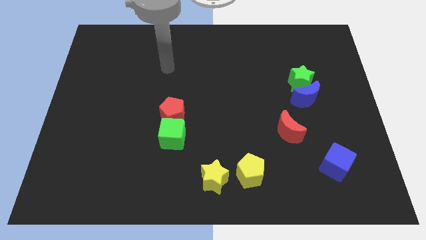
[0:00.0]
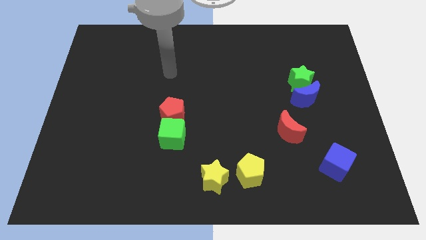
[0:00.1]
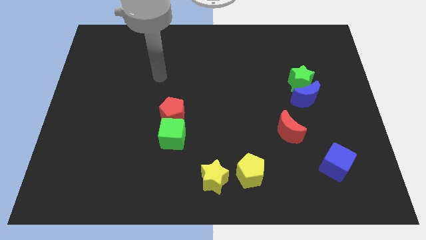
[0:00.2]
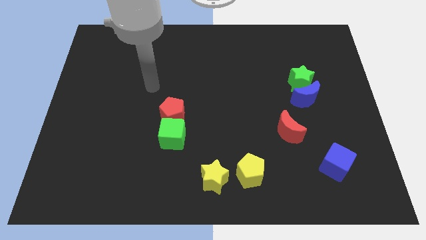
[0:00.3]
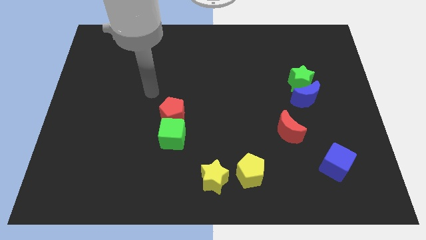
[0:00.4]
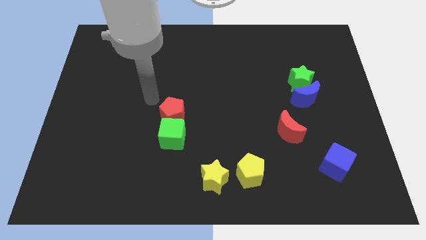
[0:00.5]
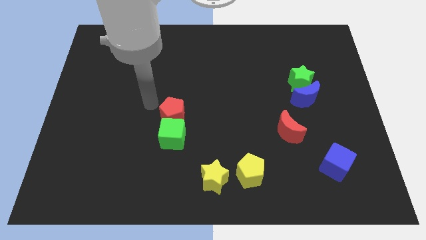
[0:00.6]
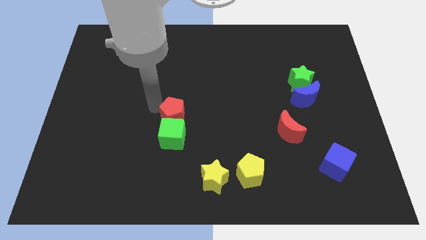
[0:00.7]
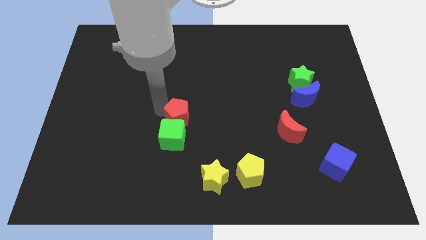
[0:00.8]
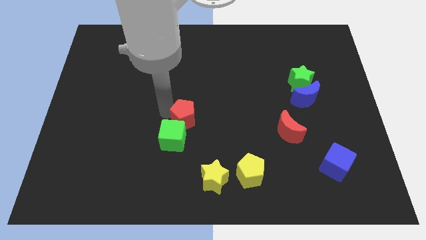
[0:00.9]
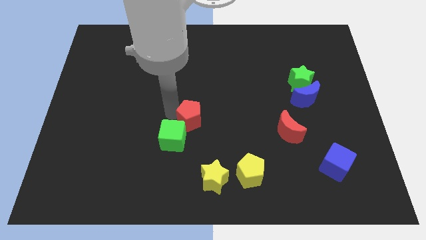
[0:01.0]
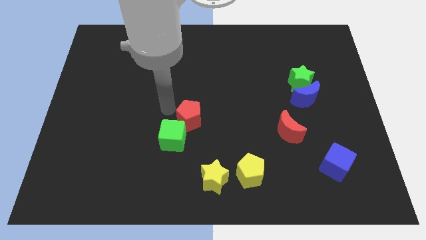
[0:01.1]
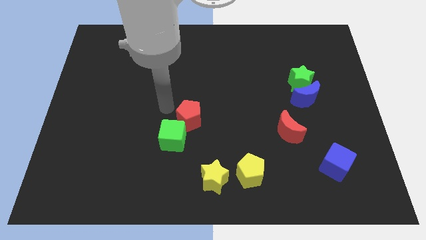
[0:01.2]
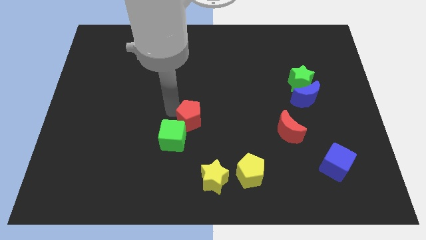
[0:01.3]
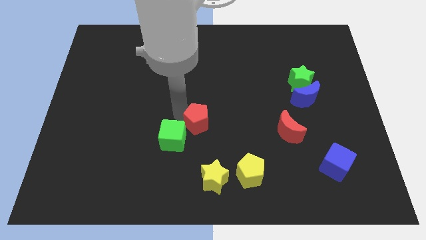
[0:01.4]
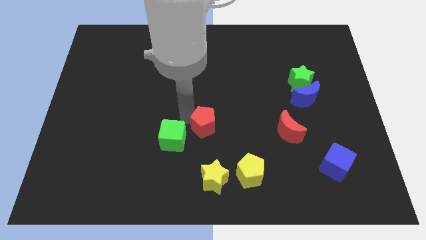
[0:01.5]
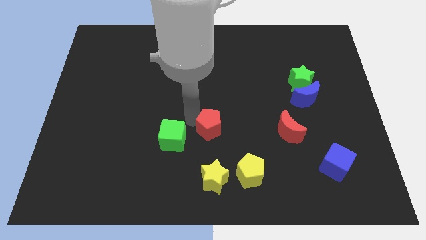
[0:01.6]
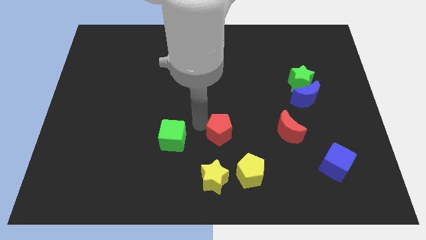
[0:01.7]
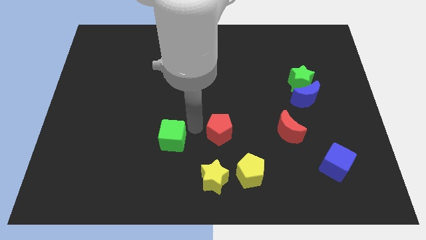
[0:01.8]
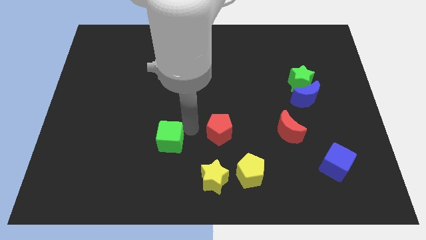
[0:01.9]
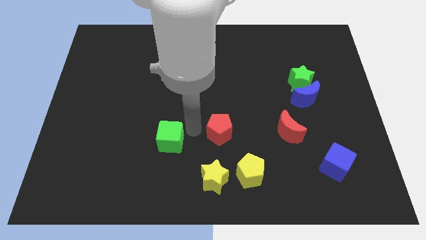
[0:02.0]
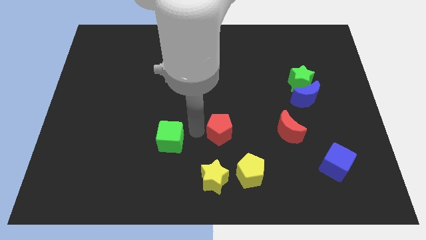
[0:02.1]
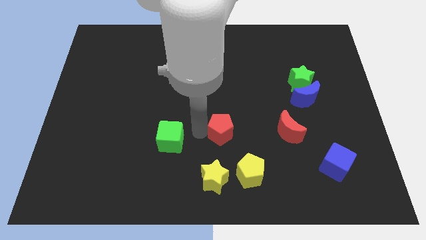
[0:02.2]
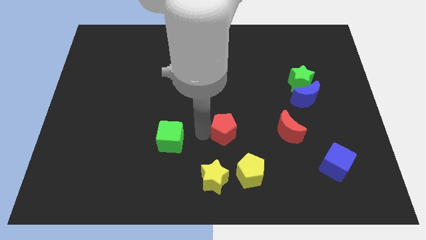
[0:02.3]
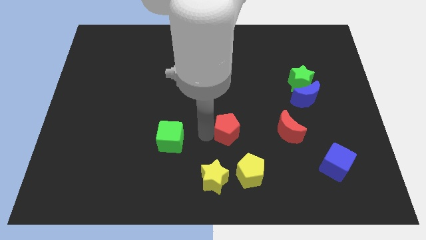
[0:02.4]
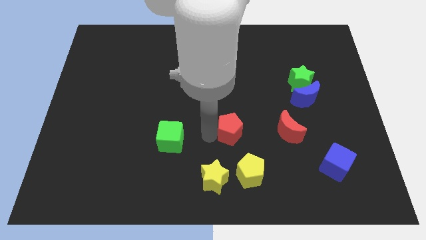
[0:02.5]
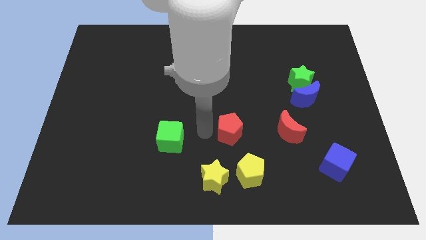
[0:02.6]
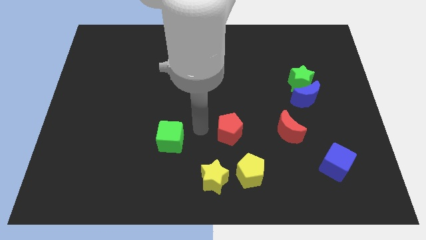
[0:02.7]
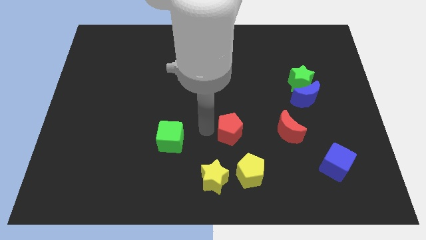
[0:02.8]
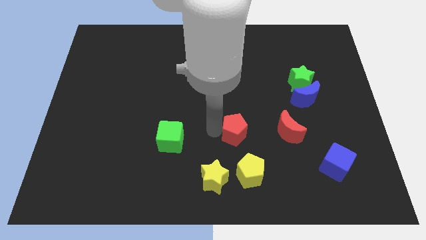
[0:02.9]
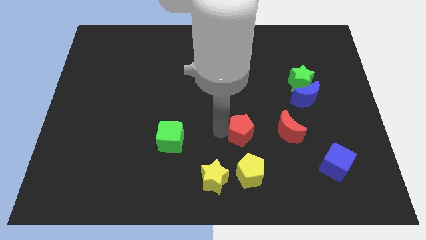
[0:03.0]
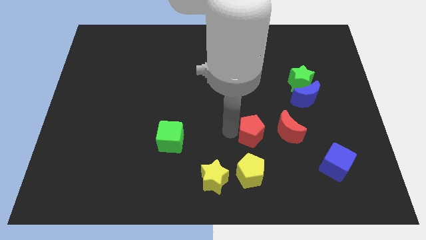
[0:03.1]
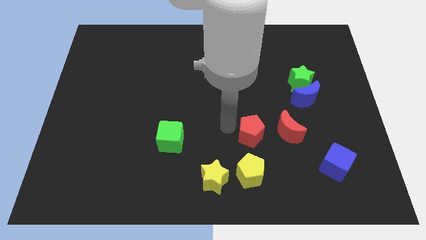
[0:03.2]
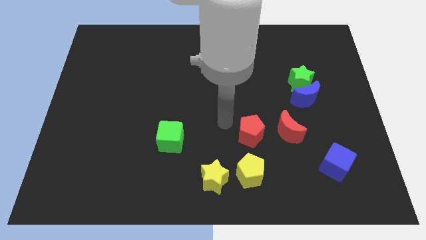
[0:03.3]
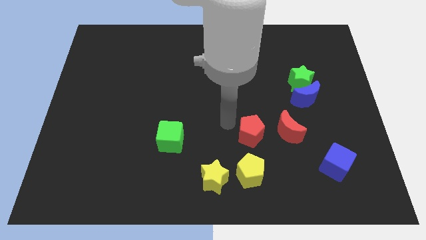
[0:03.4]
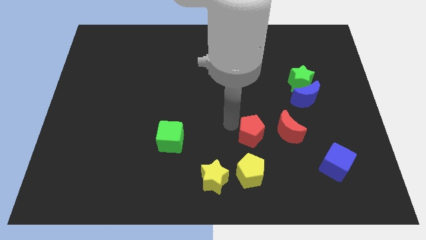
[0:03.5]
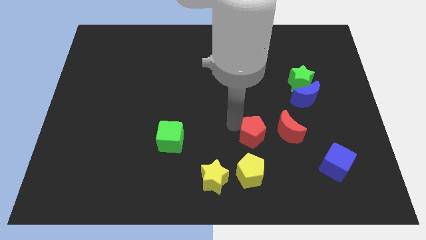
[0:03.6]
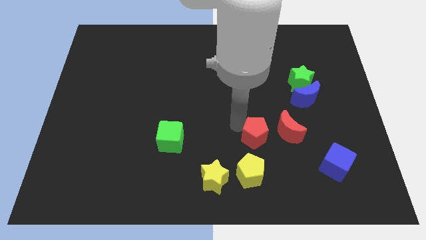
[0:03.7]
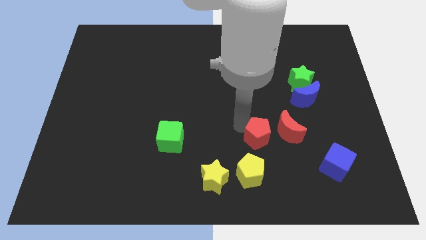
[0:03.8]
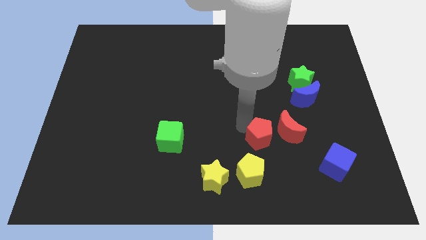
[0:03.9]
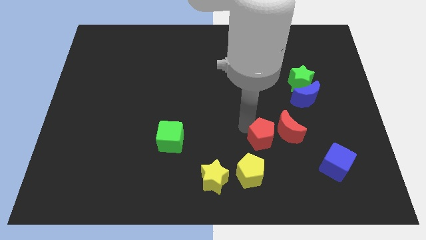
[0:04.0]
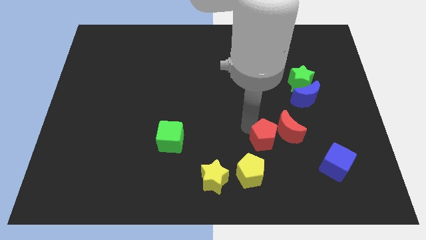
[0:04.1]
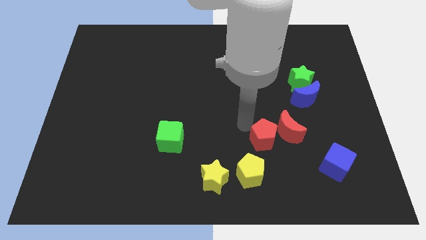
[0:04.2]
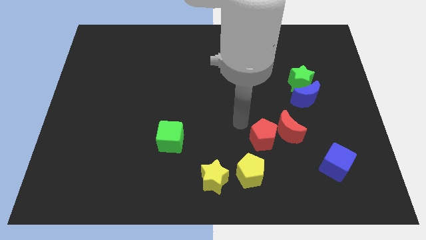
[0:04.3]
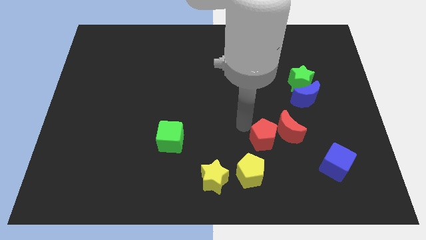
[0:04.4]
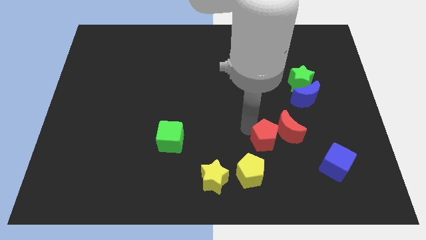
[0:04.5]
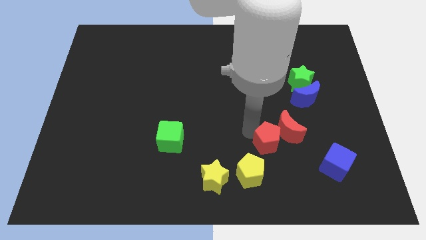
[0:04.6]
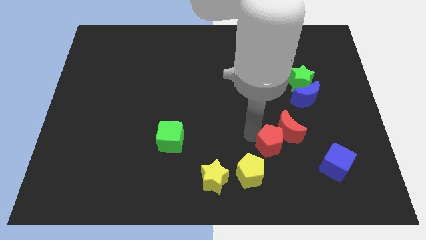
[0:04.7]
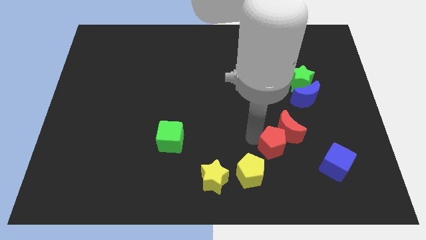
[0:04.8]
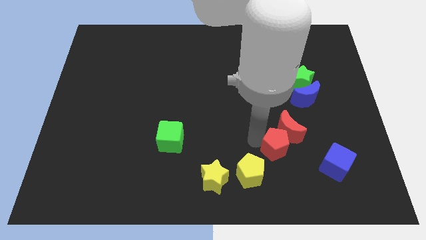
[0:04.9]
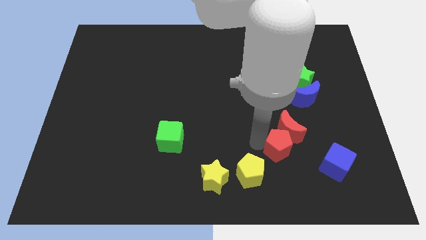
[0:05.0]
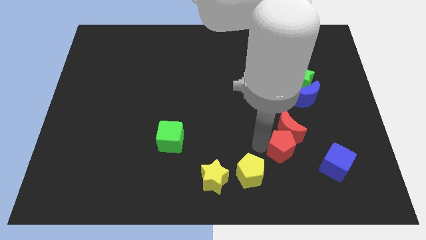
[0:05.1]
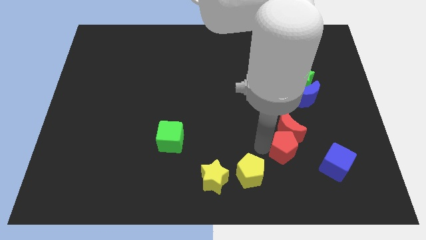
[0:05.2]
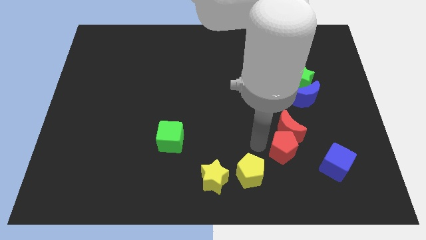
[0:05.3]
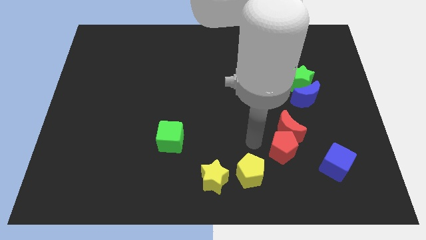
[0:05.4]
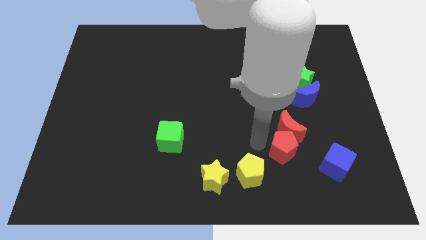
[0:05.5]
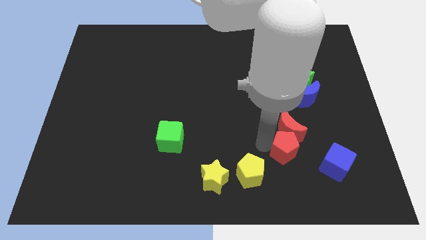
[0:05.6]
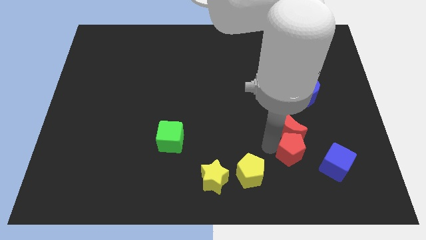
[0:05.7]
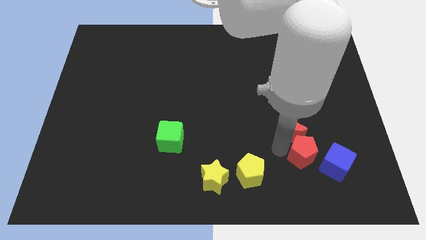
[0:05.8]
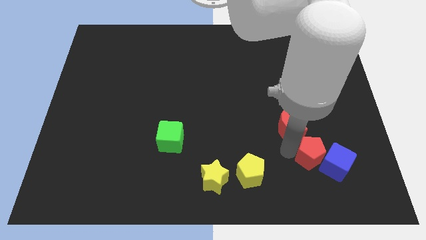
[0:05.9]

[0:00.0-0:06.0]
slide the red pentagon towards the blue cube

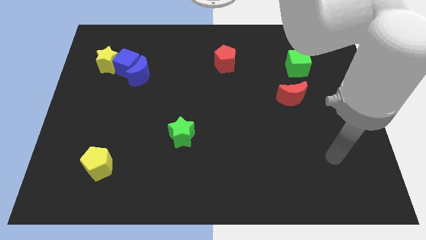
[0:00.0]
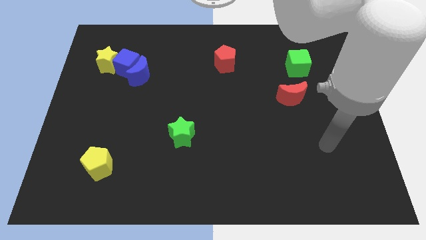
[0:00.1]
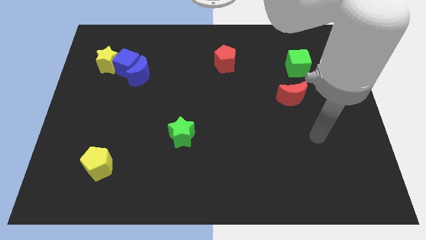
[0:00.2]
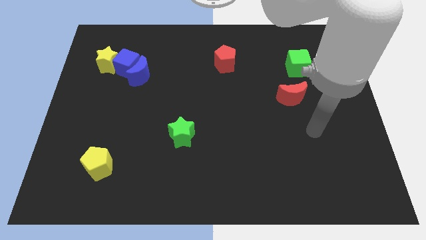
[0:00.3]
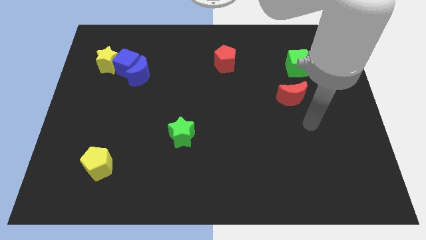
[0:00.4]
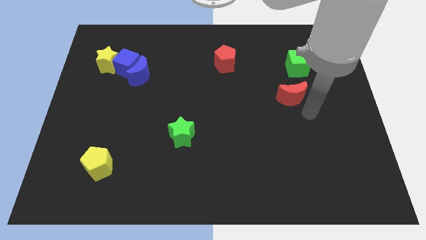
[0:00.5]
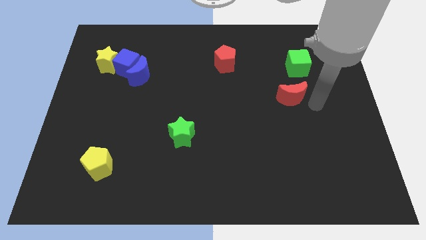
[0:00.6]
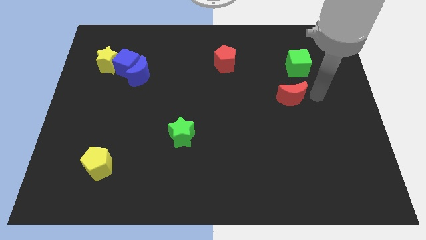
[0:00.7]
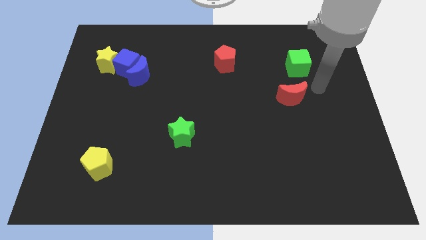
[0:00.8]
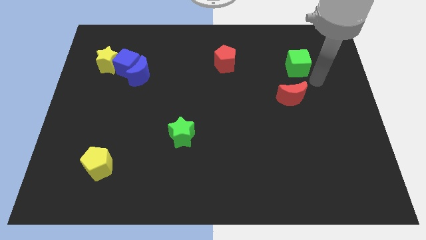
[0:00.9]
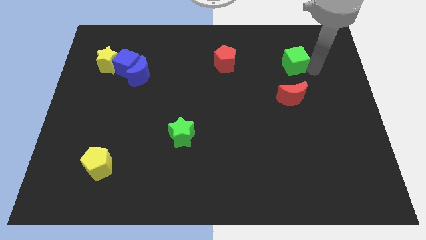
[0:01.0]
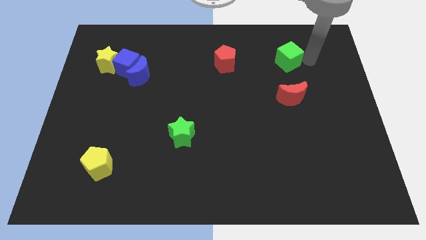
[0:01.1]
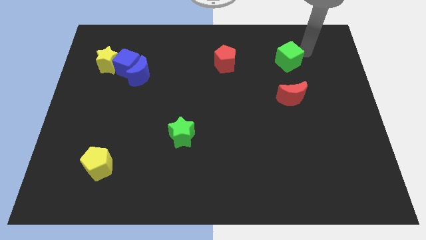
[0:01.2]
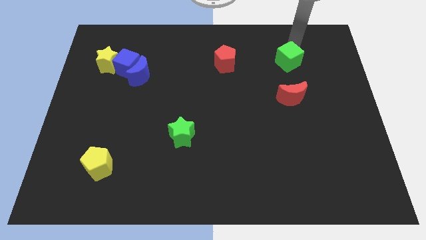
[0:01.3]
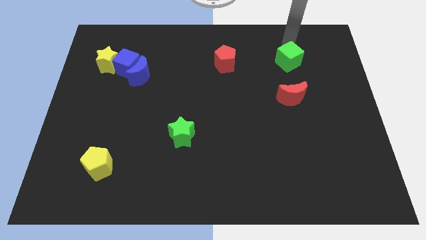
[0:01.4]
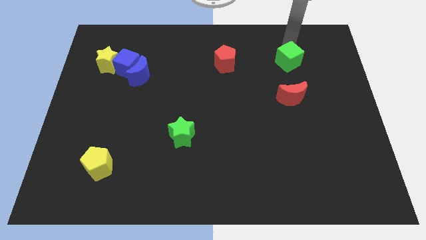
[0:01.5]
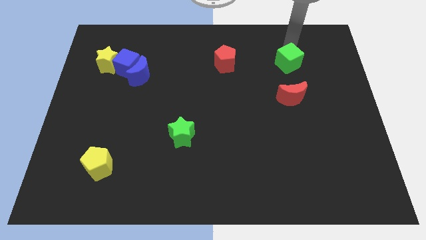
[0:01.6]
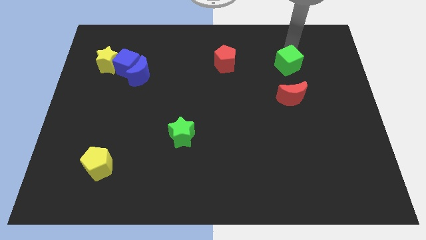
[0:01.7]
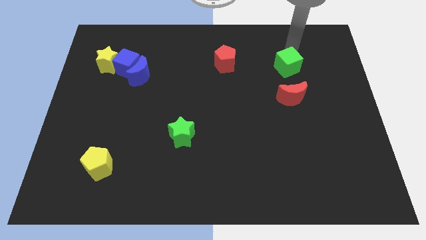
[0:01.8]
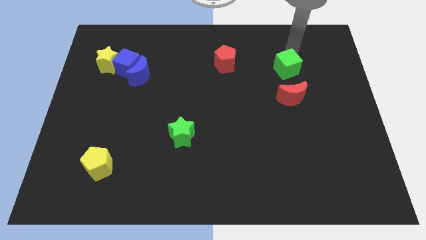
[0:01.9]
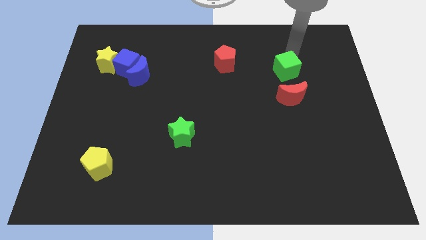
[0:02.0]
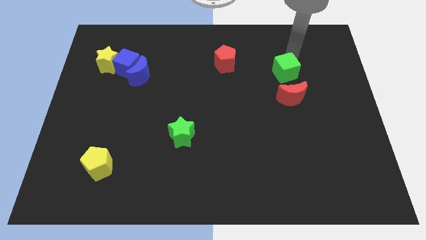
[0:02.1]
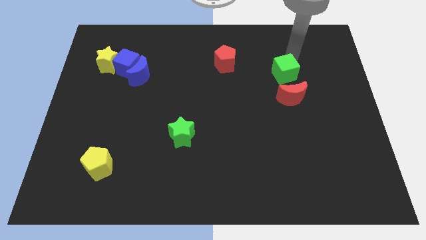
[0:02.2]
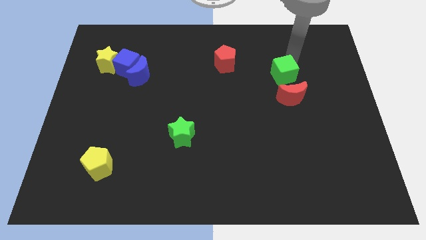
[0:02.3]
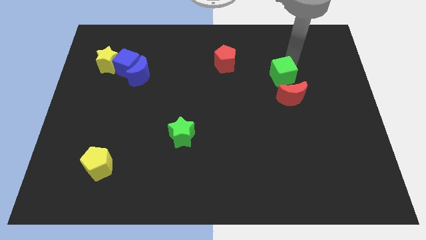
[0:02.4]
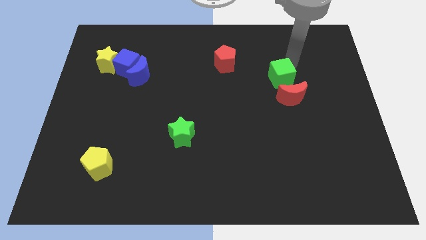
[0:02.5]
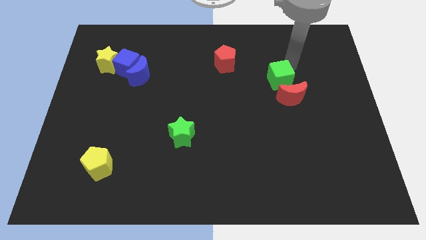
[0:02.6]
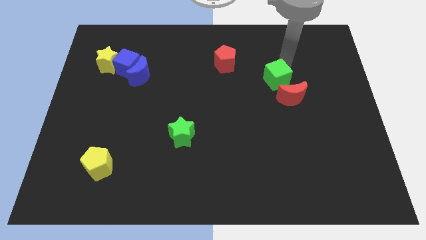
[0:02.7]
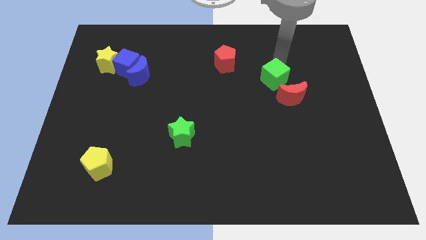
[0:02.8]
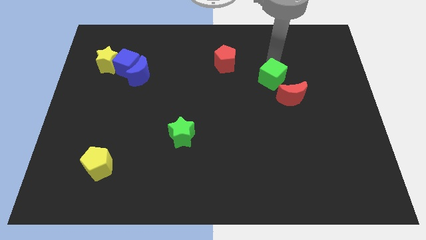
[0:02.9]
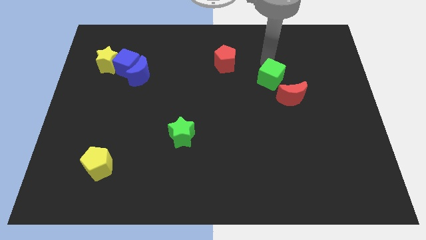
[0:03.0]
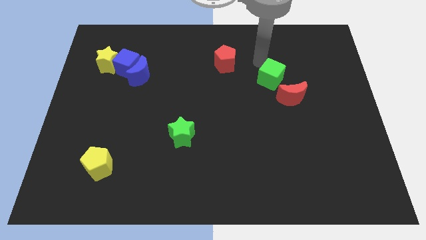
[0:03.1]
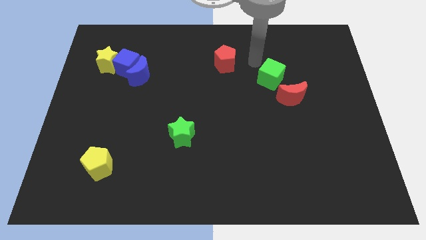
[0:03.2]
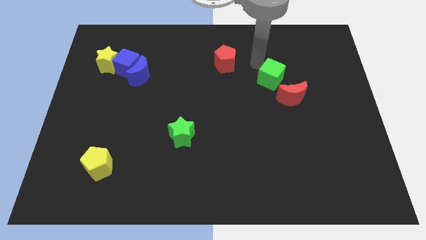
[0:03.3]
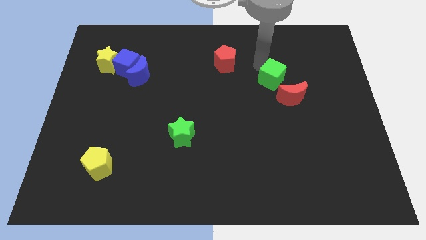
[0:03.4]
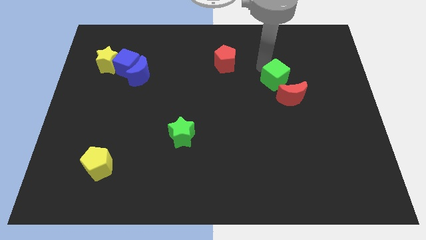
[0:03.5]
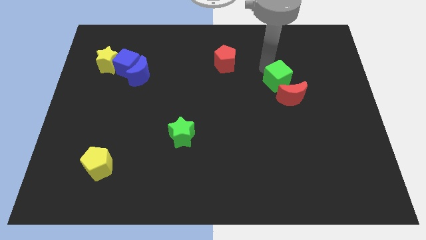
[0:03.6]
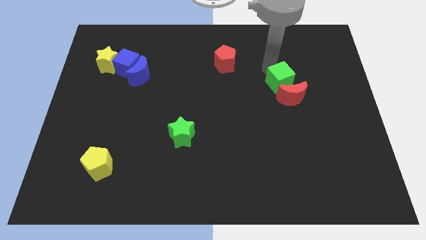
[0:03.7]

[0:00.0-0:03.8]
push the green cube to the red moon
